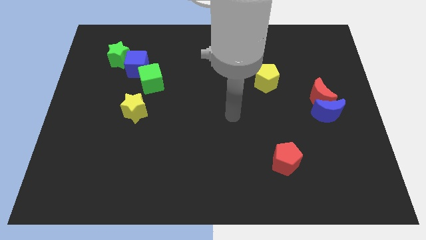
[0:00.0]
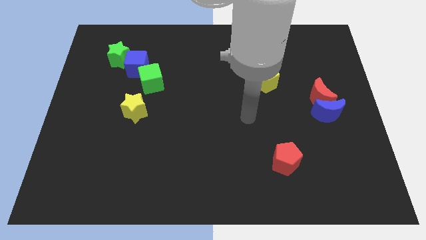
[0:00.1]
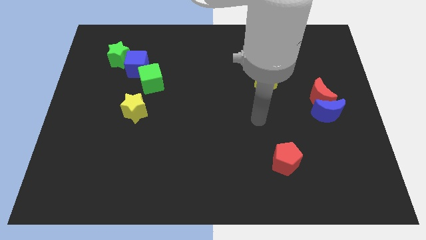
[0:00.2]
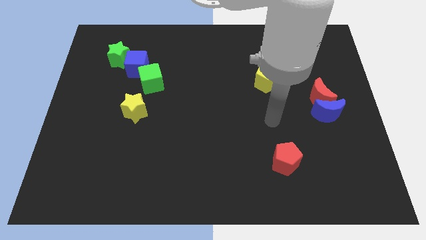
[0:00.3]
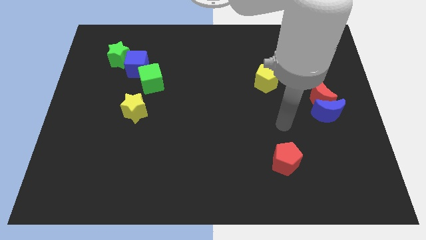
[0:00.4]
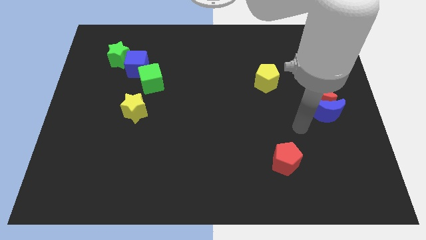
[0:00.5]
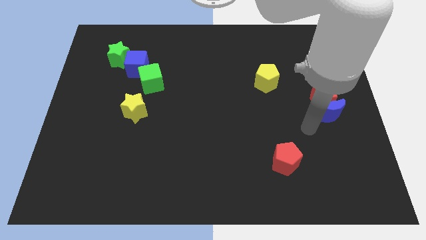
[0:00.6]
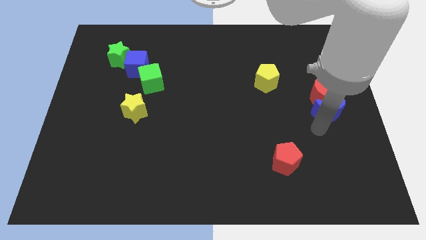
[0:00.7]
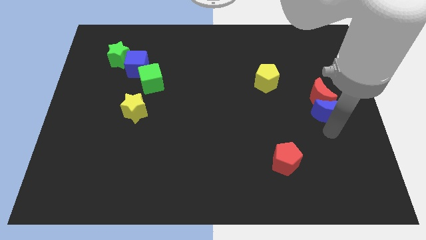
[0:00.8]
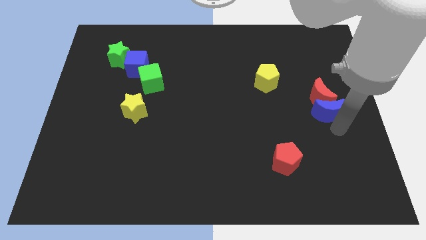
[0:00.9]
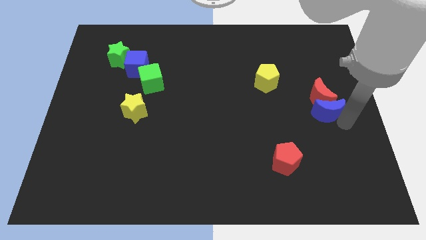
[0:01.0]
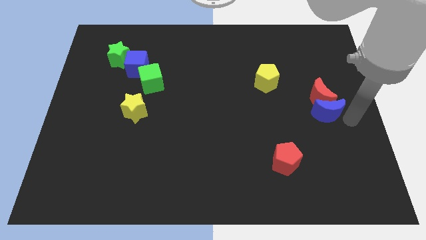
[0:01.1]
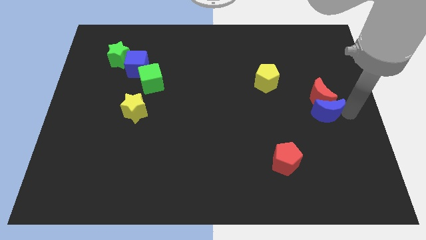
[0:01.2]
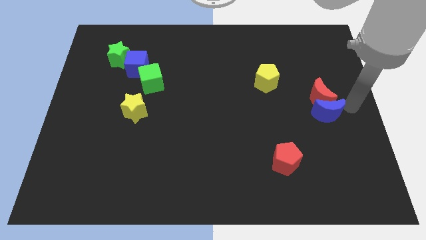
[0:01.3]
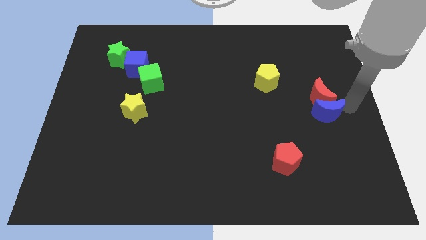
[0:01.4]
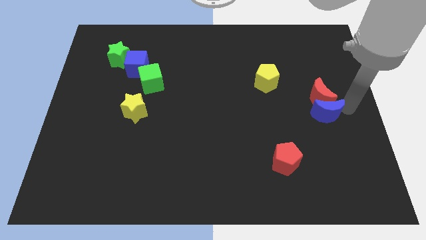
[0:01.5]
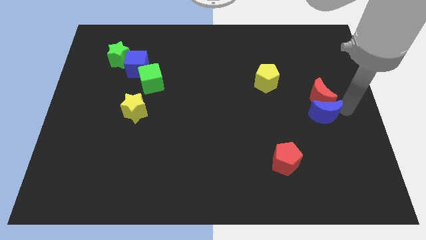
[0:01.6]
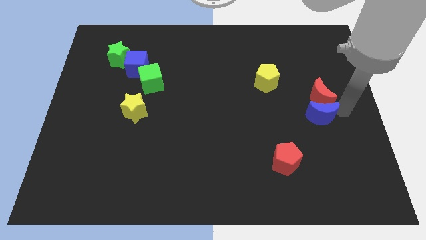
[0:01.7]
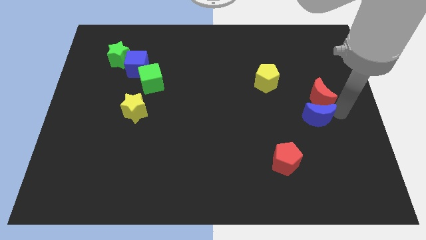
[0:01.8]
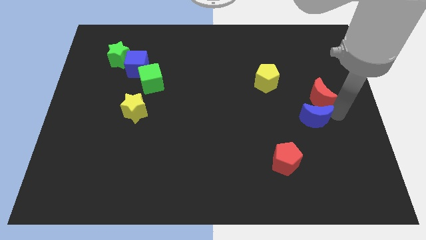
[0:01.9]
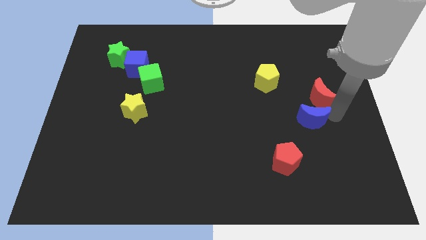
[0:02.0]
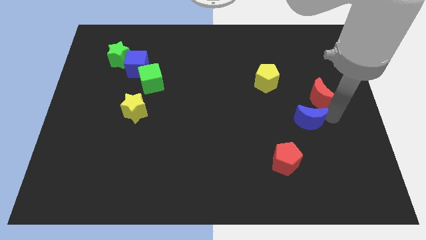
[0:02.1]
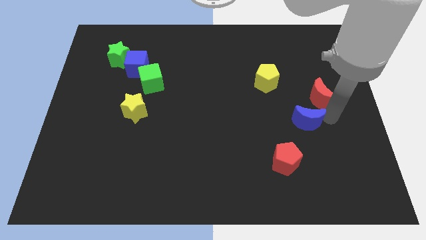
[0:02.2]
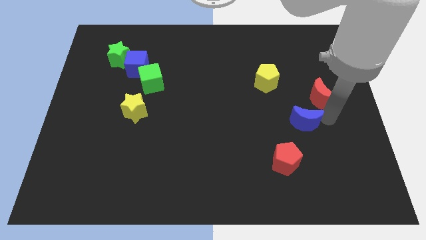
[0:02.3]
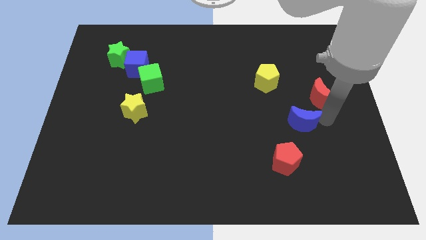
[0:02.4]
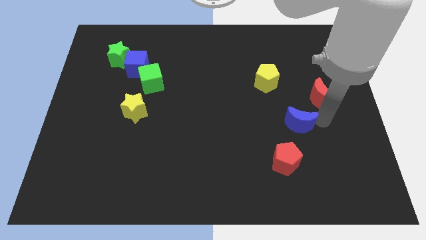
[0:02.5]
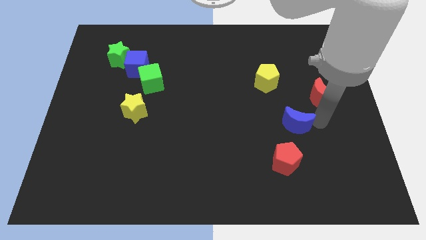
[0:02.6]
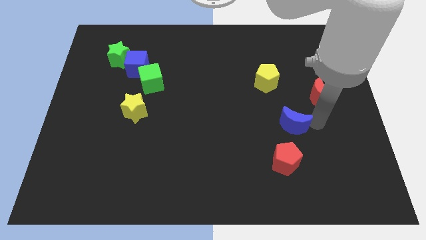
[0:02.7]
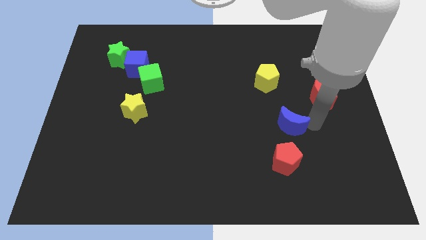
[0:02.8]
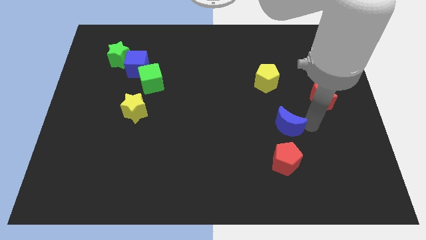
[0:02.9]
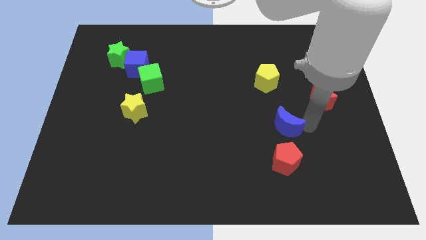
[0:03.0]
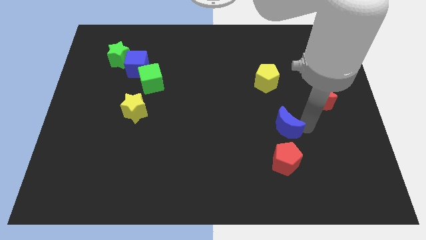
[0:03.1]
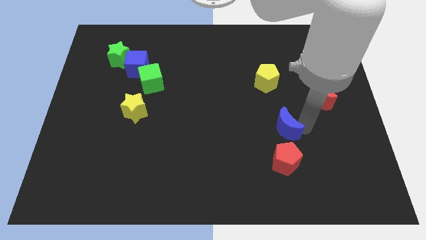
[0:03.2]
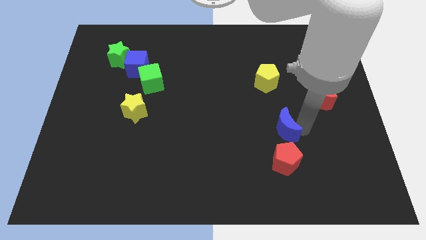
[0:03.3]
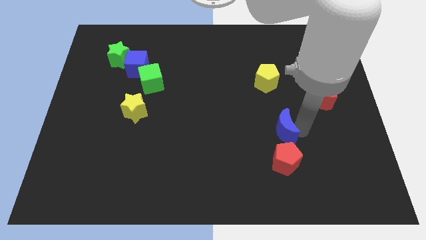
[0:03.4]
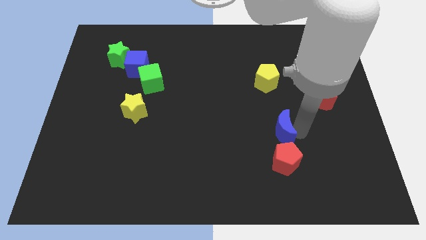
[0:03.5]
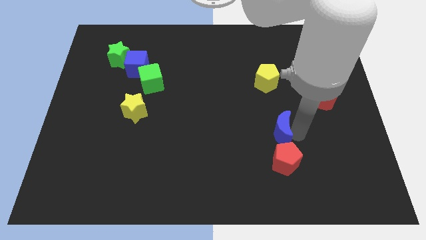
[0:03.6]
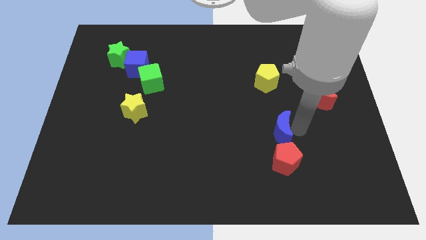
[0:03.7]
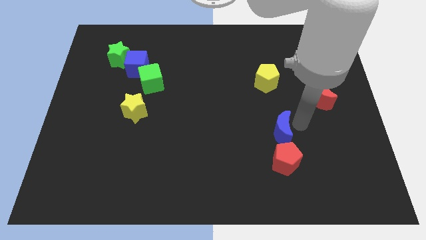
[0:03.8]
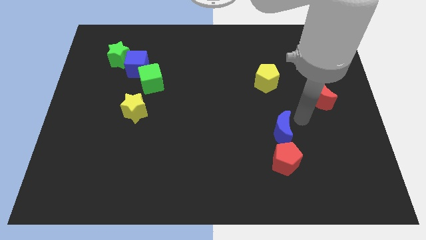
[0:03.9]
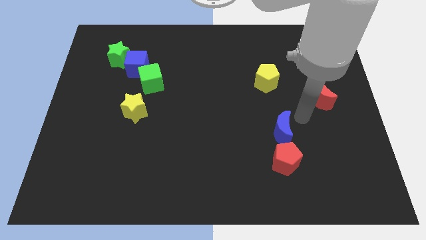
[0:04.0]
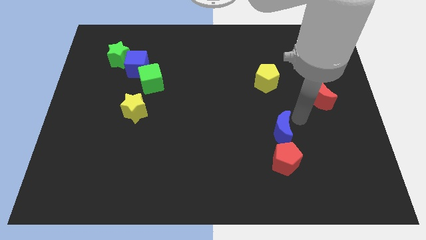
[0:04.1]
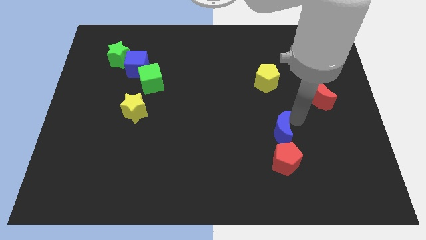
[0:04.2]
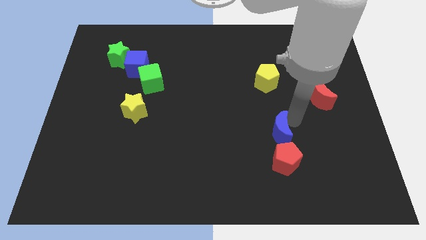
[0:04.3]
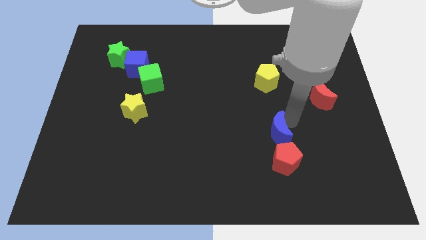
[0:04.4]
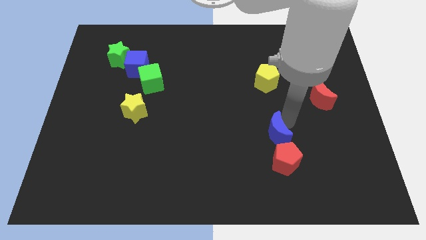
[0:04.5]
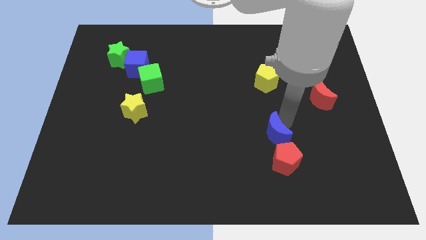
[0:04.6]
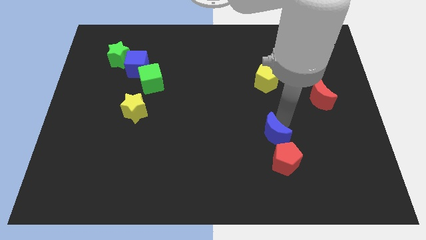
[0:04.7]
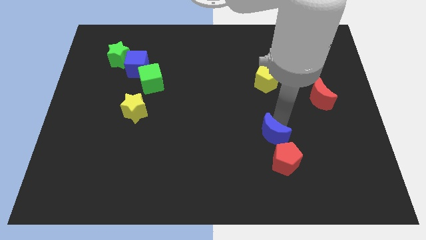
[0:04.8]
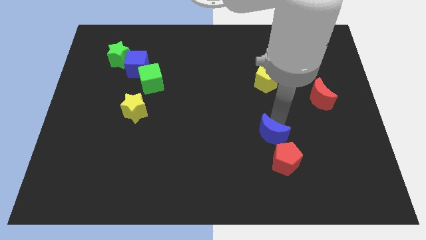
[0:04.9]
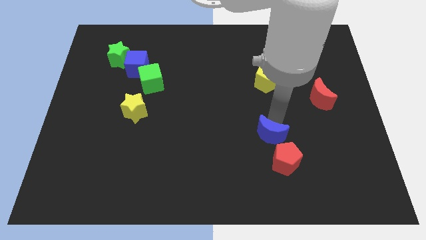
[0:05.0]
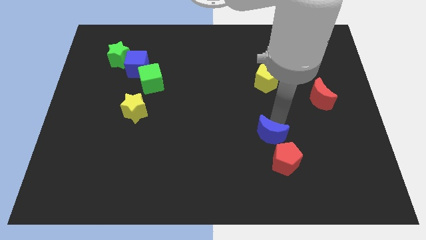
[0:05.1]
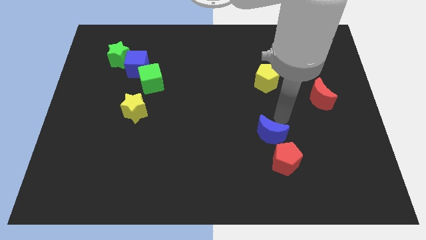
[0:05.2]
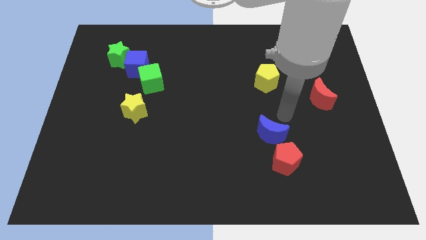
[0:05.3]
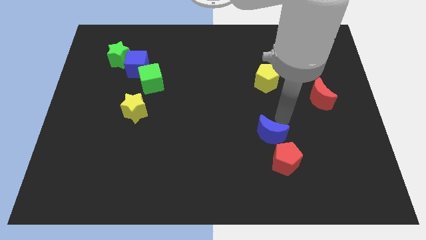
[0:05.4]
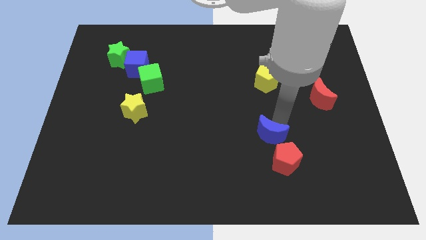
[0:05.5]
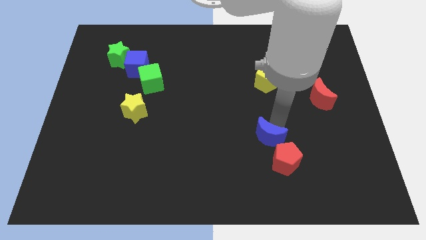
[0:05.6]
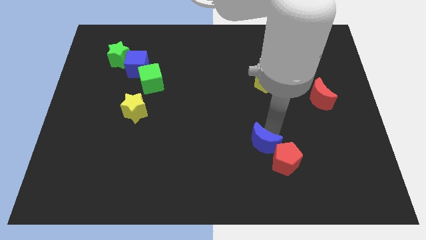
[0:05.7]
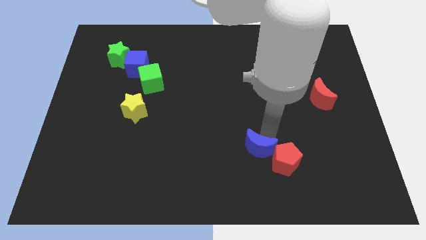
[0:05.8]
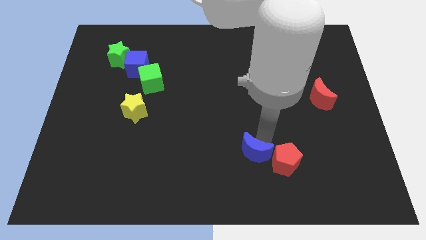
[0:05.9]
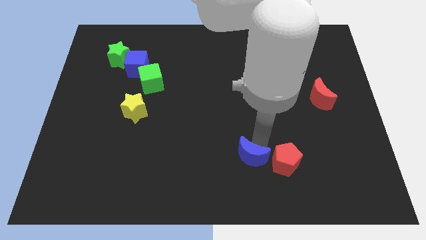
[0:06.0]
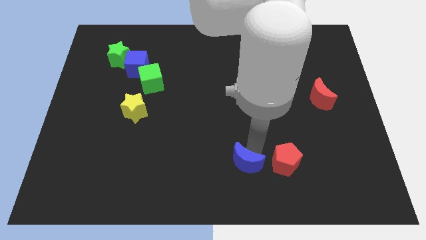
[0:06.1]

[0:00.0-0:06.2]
move the blue moon to the bottom side
